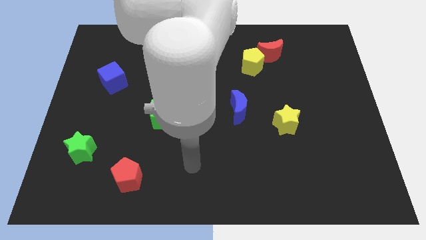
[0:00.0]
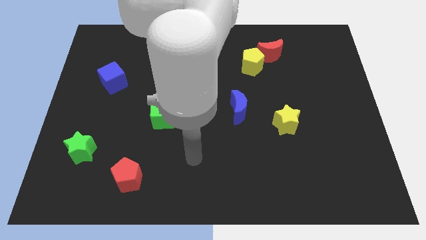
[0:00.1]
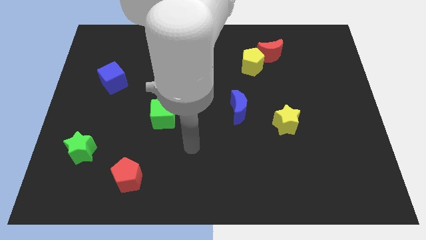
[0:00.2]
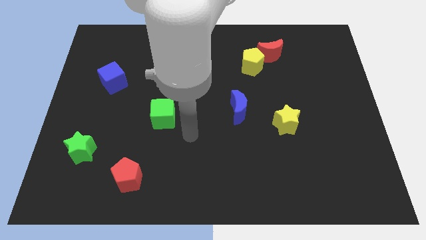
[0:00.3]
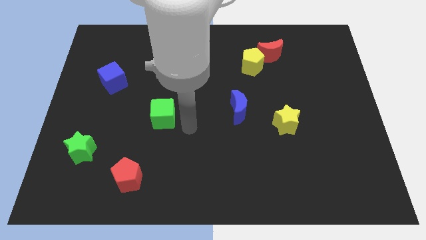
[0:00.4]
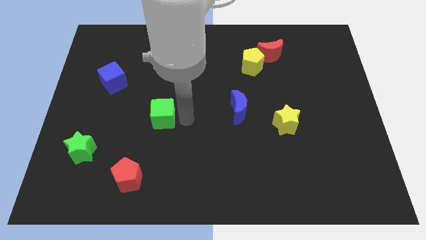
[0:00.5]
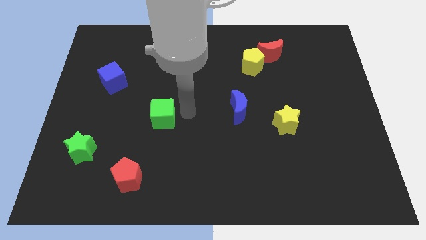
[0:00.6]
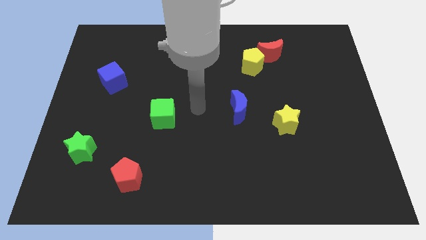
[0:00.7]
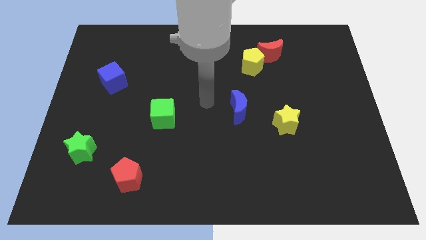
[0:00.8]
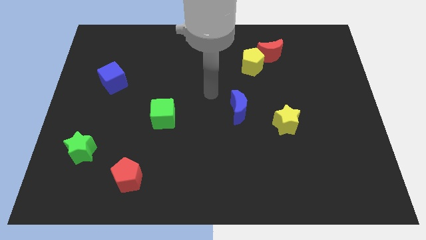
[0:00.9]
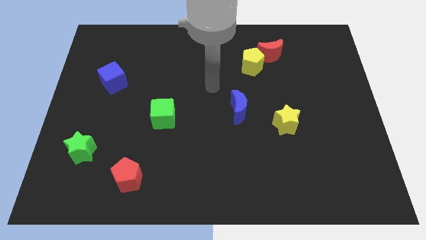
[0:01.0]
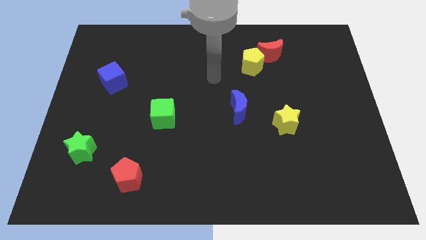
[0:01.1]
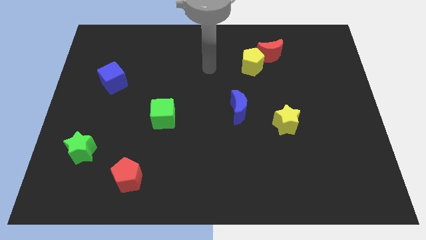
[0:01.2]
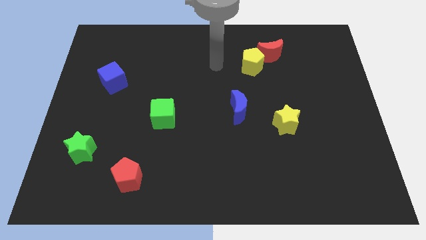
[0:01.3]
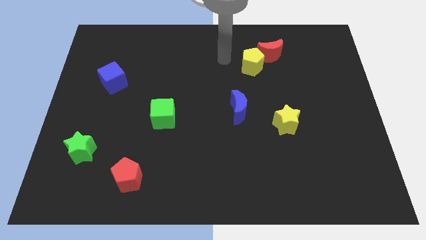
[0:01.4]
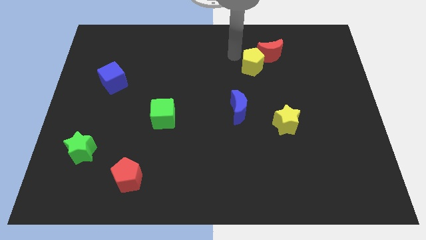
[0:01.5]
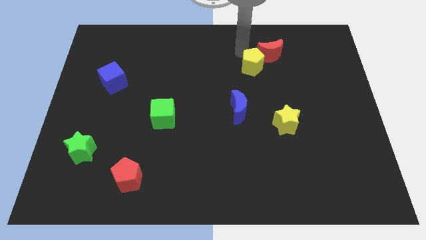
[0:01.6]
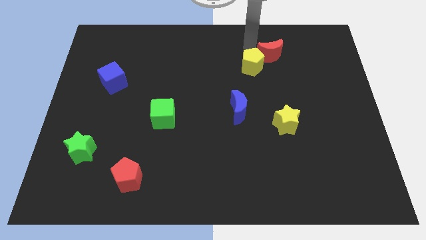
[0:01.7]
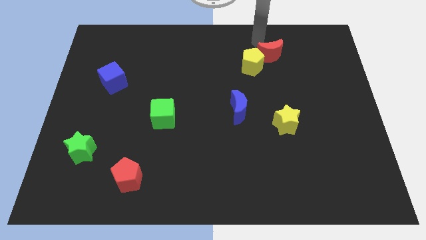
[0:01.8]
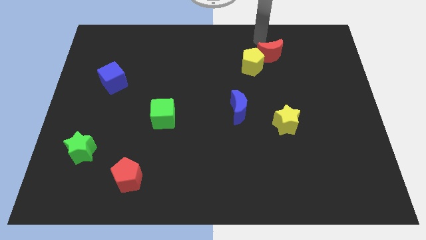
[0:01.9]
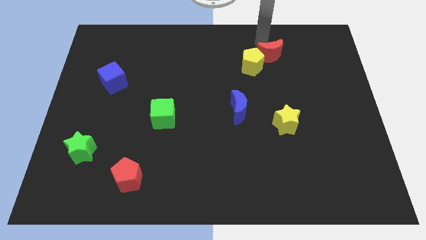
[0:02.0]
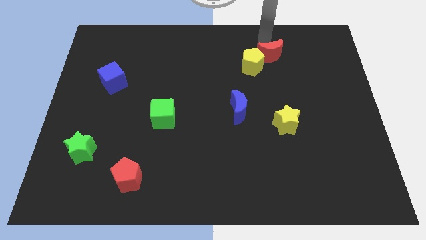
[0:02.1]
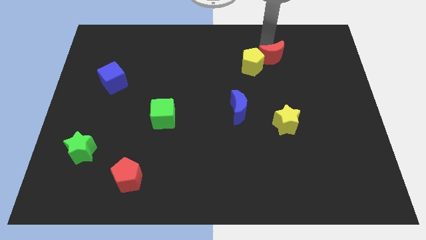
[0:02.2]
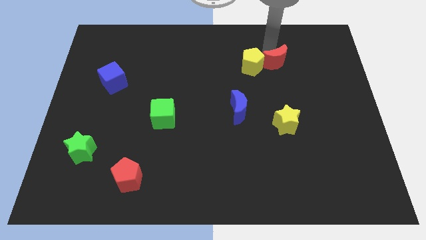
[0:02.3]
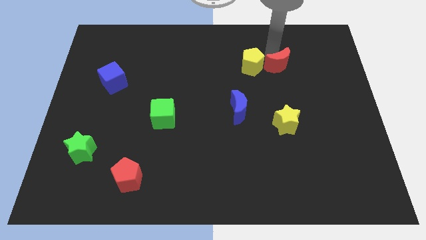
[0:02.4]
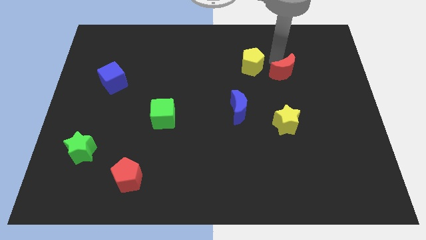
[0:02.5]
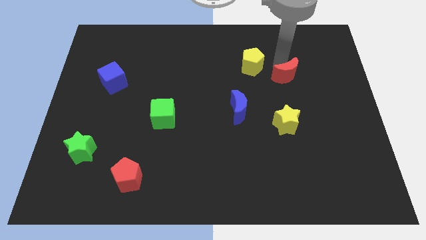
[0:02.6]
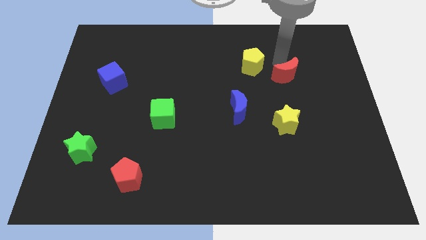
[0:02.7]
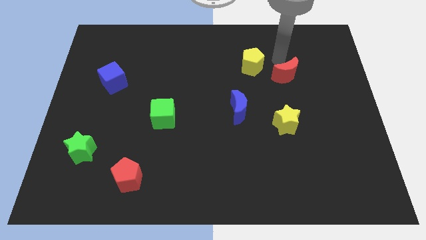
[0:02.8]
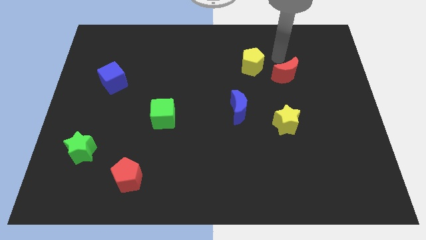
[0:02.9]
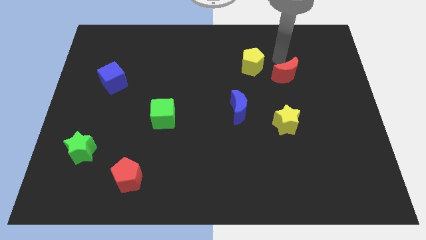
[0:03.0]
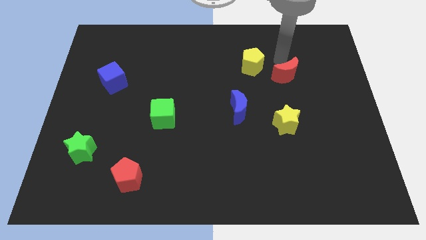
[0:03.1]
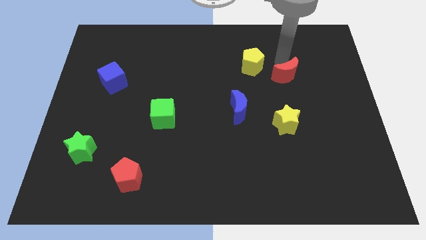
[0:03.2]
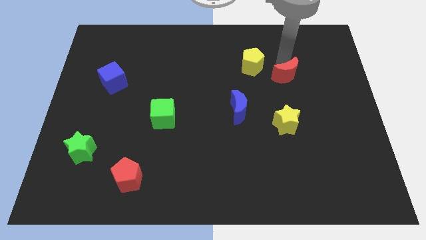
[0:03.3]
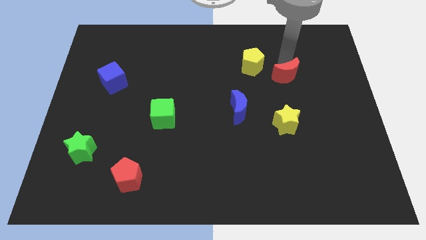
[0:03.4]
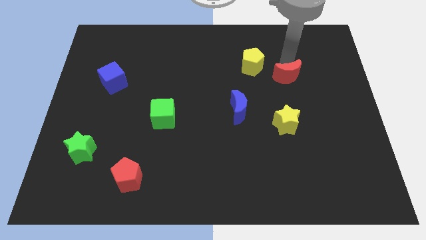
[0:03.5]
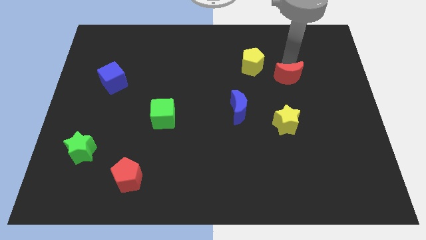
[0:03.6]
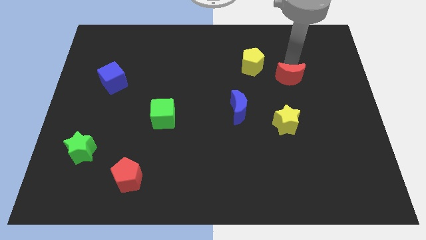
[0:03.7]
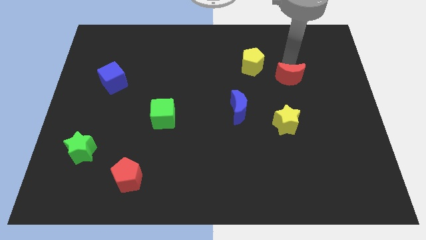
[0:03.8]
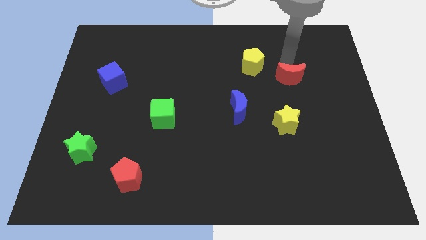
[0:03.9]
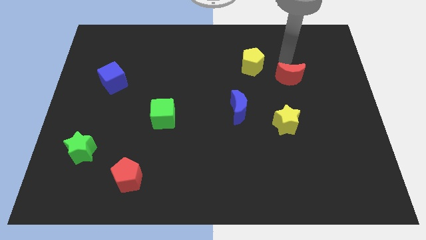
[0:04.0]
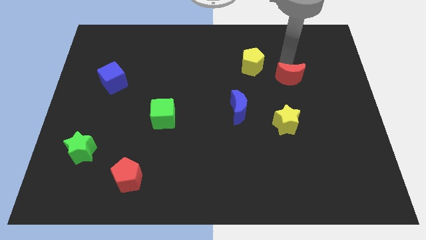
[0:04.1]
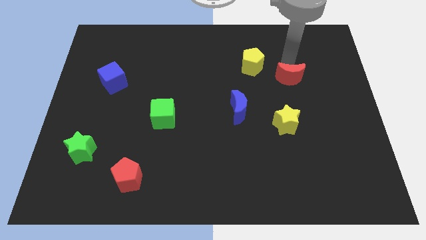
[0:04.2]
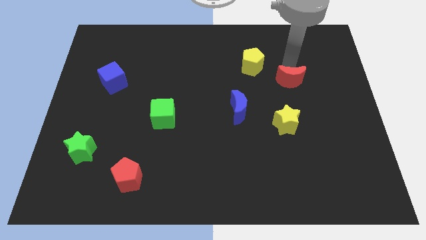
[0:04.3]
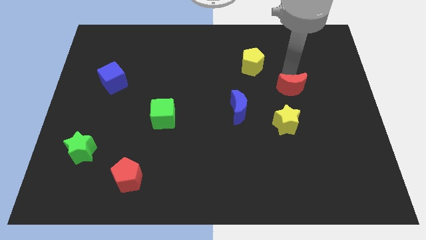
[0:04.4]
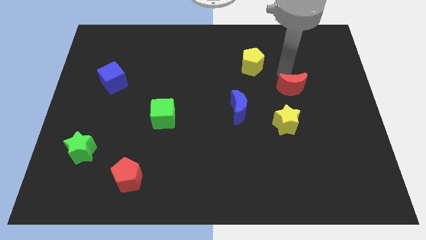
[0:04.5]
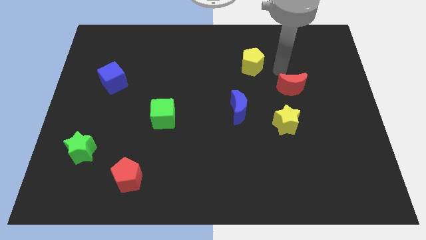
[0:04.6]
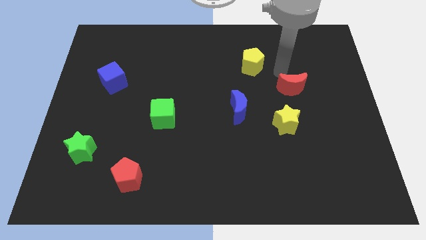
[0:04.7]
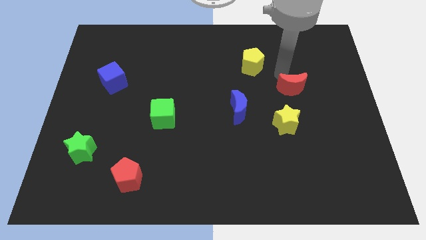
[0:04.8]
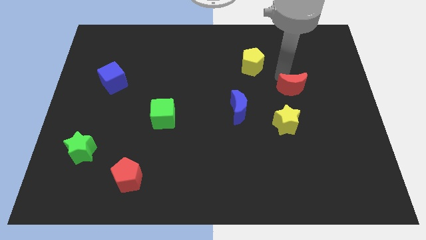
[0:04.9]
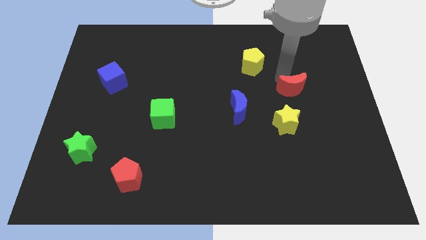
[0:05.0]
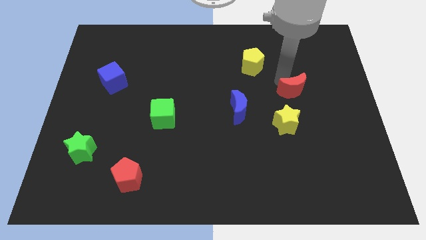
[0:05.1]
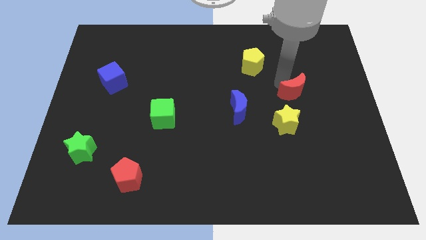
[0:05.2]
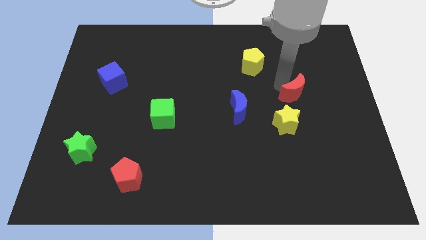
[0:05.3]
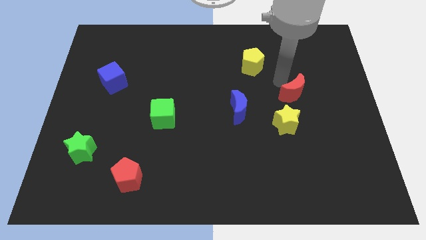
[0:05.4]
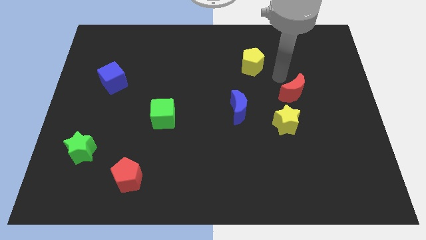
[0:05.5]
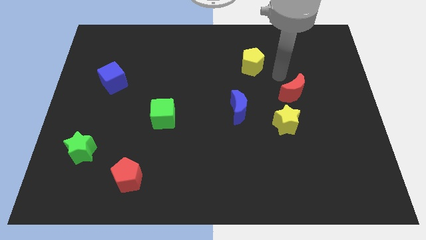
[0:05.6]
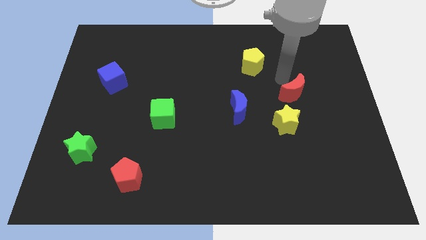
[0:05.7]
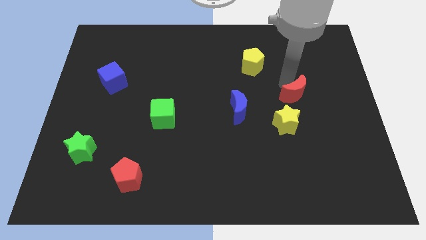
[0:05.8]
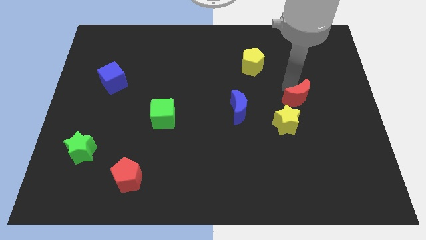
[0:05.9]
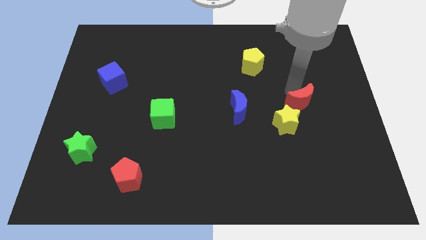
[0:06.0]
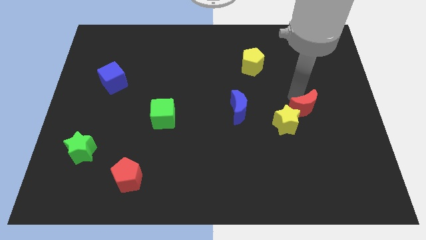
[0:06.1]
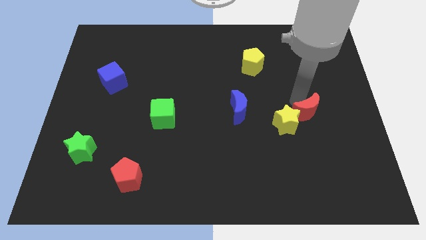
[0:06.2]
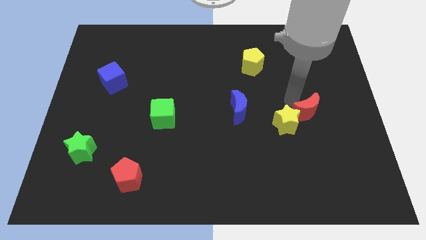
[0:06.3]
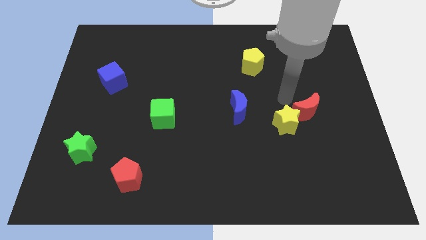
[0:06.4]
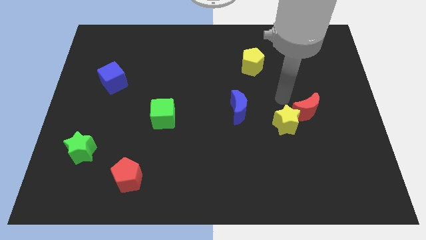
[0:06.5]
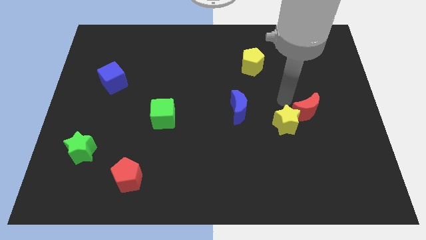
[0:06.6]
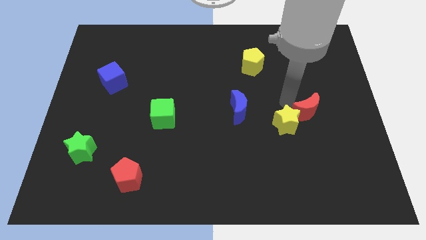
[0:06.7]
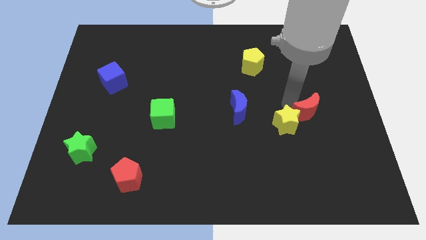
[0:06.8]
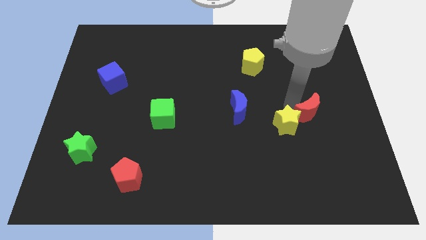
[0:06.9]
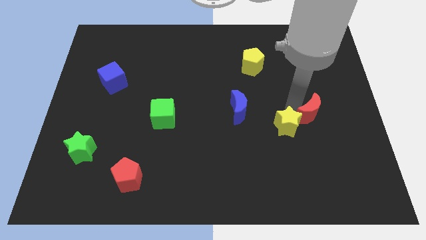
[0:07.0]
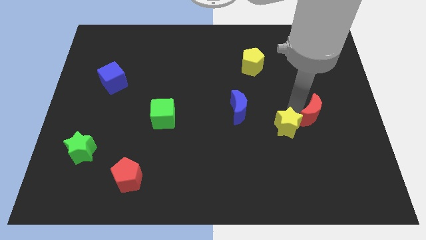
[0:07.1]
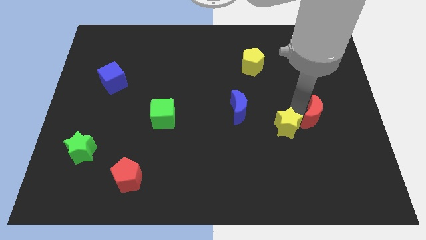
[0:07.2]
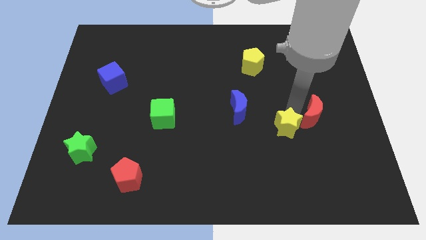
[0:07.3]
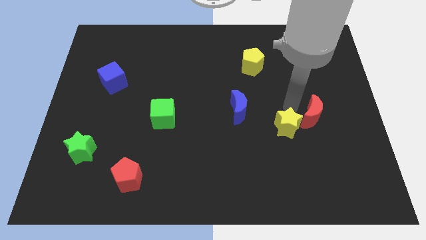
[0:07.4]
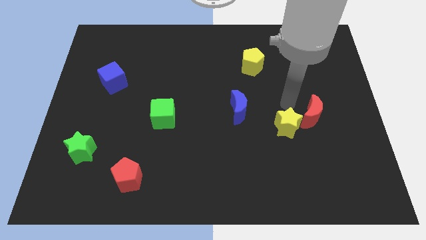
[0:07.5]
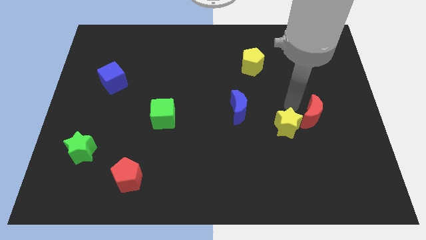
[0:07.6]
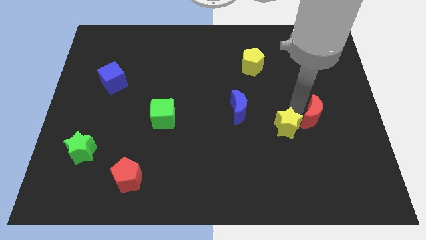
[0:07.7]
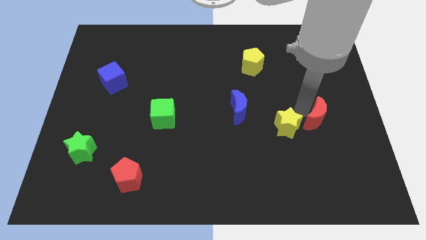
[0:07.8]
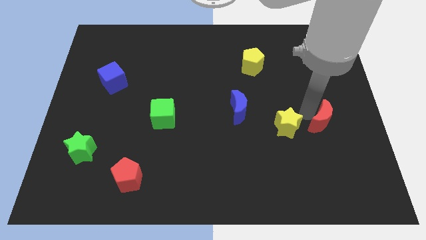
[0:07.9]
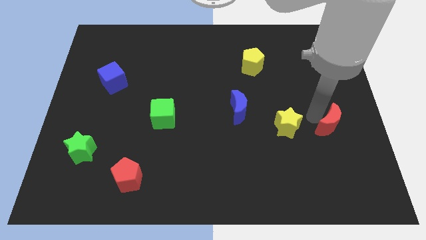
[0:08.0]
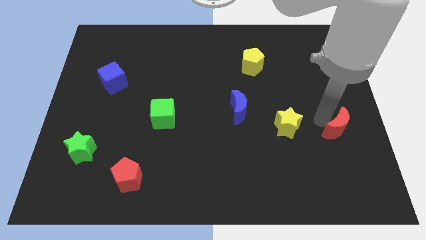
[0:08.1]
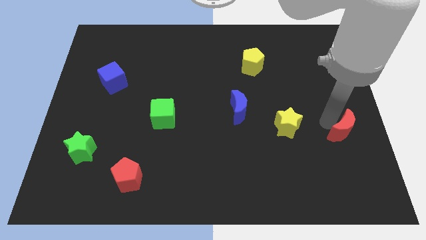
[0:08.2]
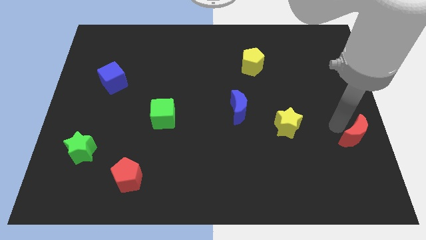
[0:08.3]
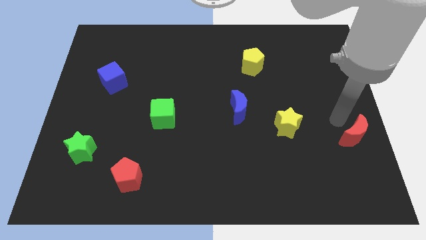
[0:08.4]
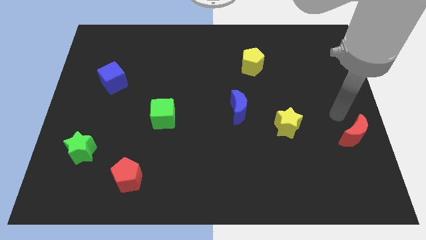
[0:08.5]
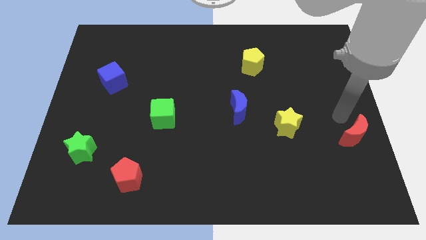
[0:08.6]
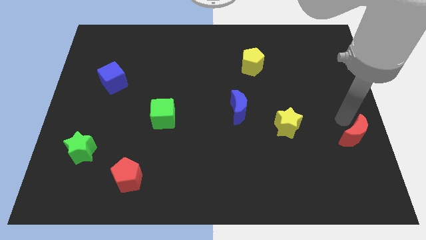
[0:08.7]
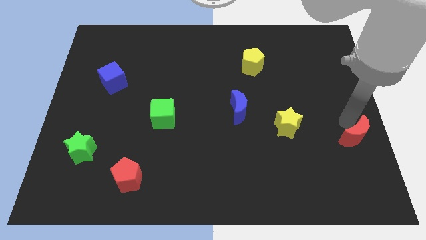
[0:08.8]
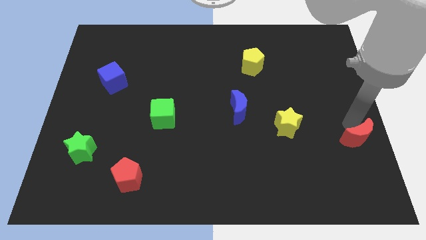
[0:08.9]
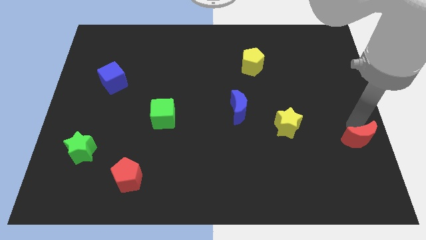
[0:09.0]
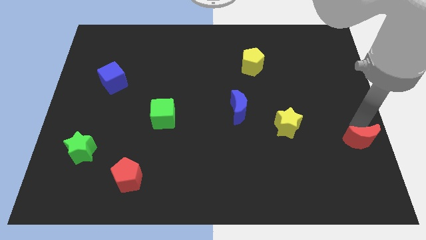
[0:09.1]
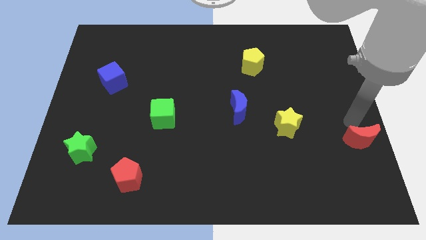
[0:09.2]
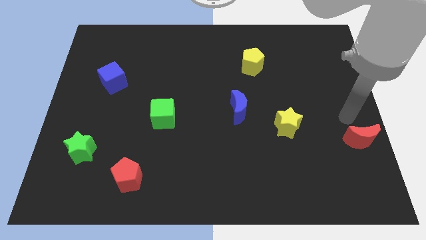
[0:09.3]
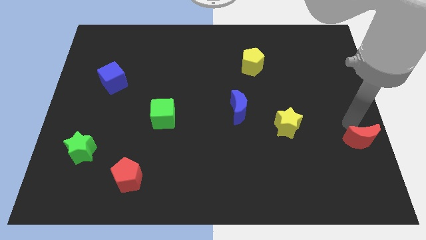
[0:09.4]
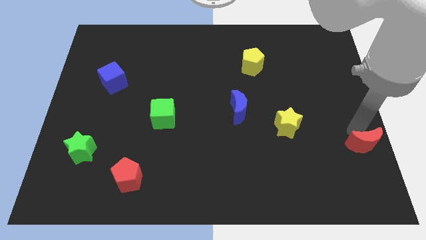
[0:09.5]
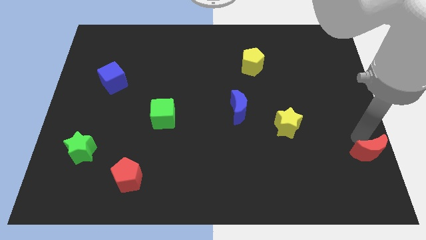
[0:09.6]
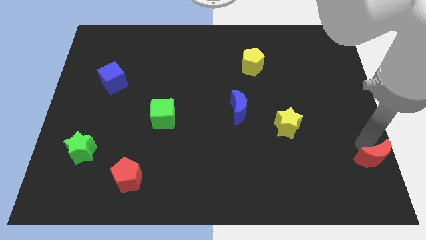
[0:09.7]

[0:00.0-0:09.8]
slide the red moon to the bottom right corner
